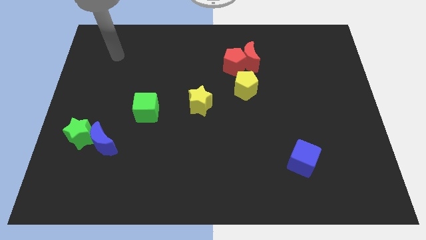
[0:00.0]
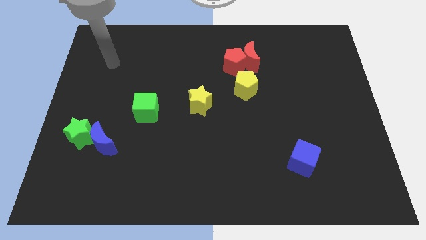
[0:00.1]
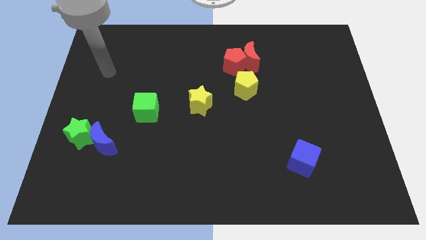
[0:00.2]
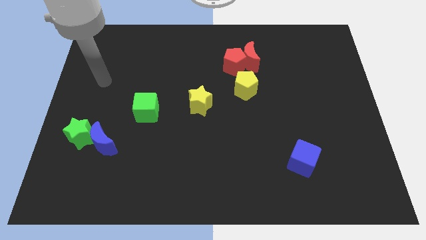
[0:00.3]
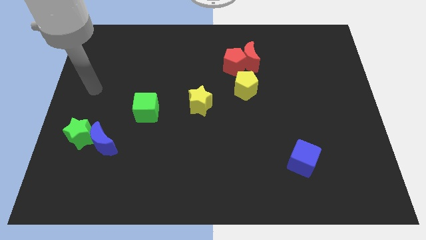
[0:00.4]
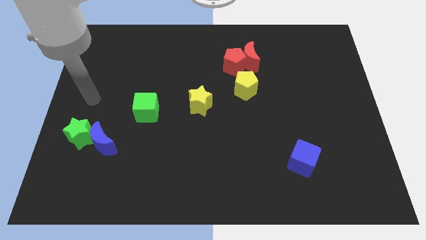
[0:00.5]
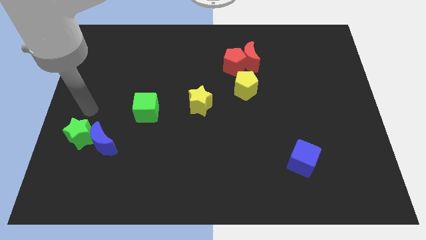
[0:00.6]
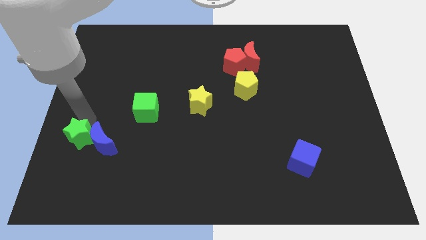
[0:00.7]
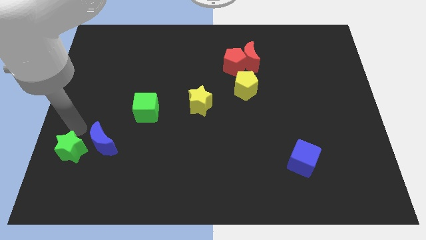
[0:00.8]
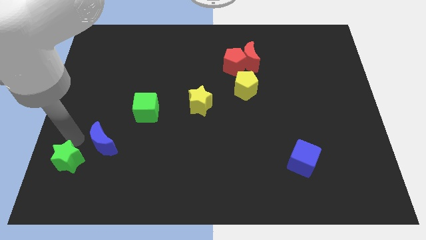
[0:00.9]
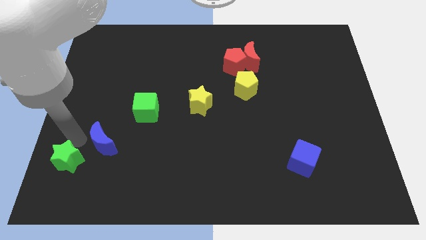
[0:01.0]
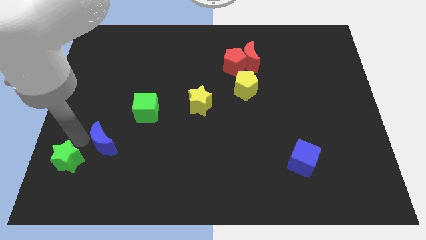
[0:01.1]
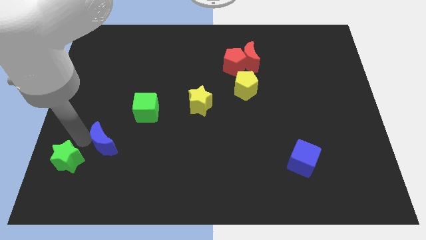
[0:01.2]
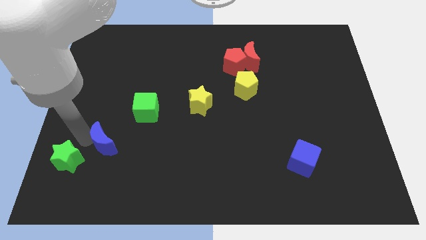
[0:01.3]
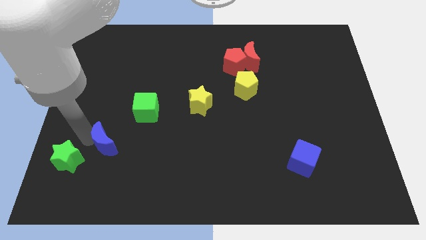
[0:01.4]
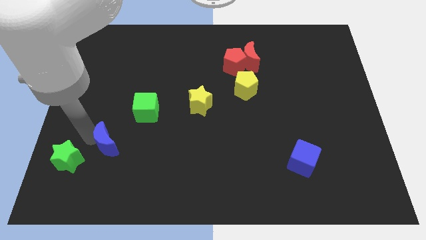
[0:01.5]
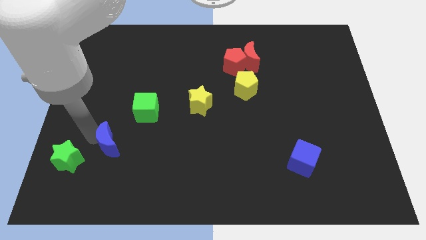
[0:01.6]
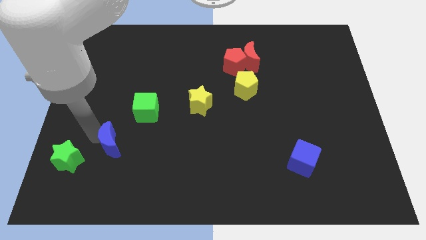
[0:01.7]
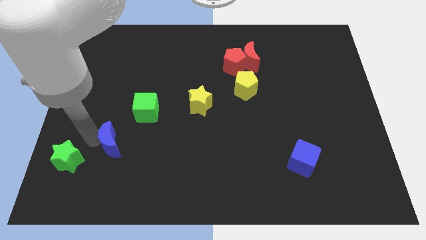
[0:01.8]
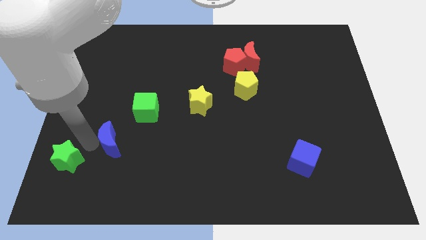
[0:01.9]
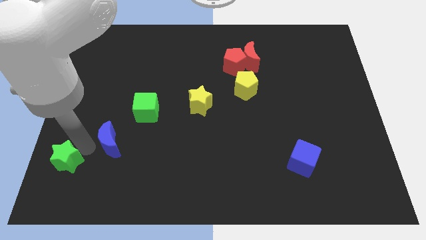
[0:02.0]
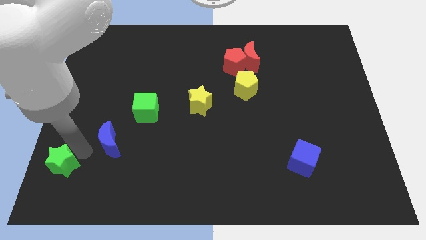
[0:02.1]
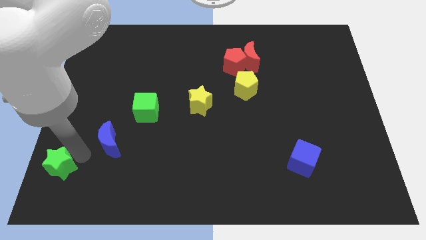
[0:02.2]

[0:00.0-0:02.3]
separate the blue moon from the green star

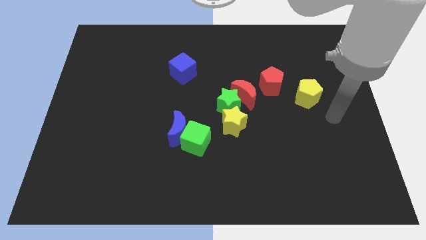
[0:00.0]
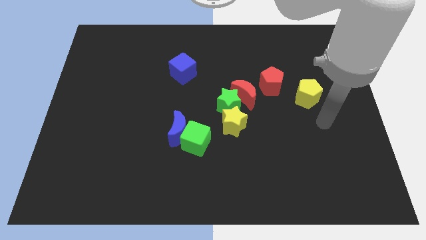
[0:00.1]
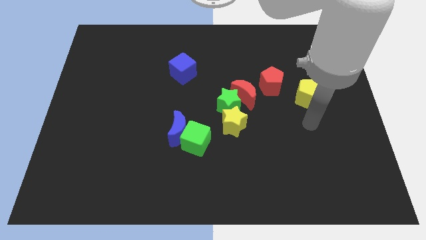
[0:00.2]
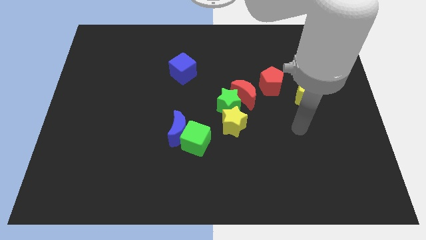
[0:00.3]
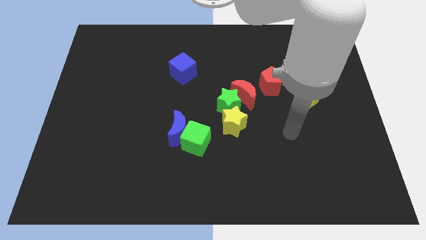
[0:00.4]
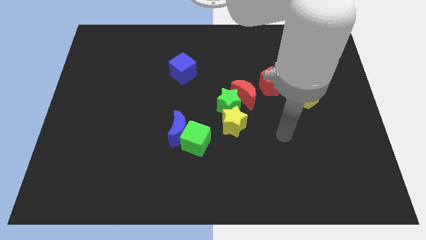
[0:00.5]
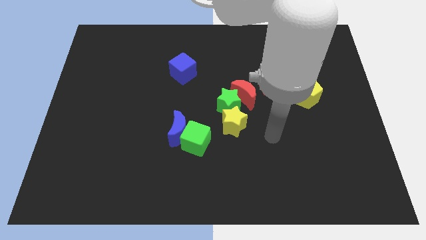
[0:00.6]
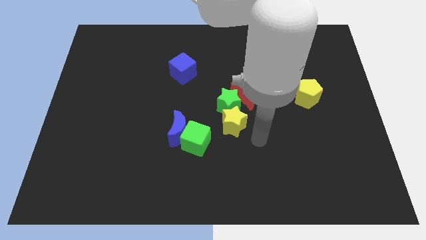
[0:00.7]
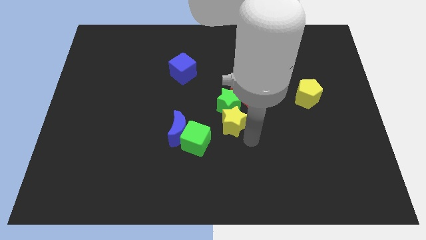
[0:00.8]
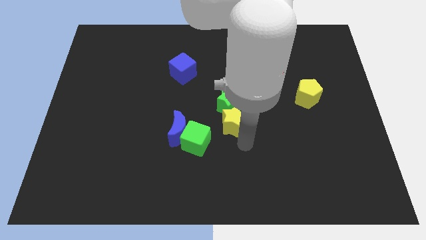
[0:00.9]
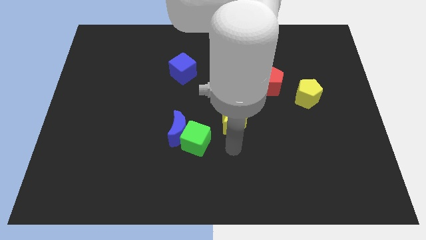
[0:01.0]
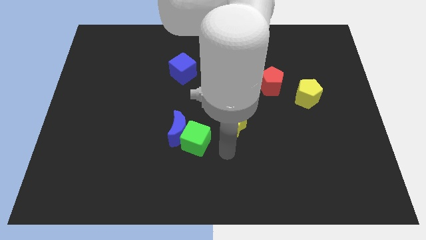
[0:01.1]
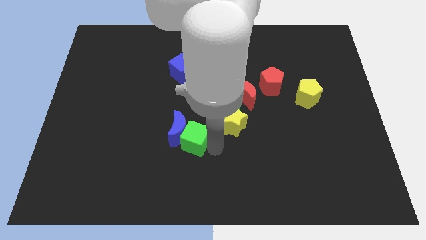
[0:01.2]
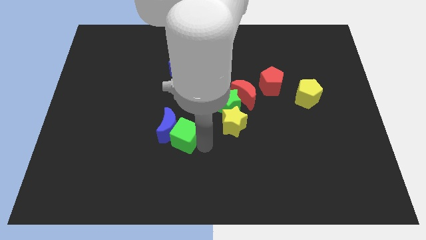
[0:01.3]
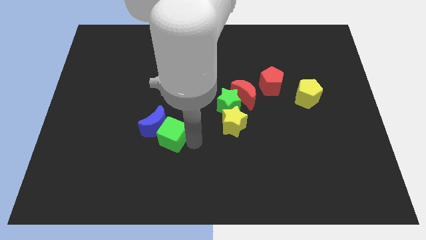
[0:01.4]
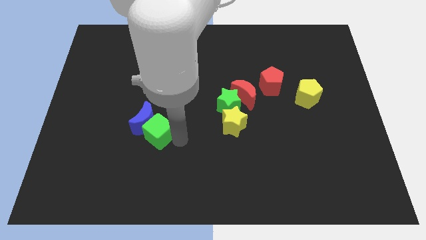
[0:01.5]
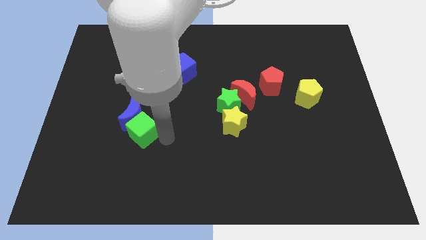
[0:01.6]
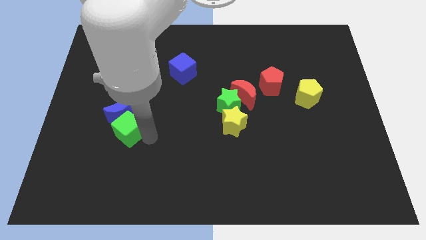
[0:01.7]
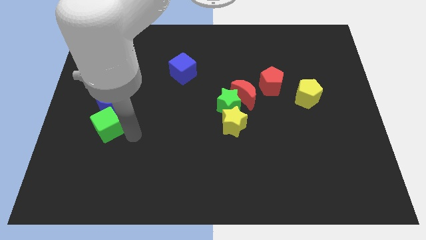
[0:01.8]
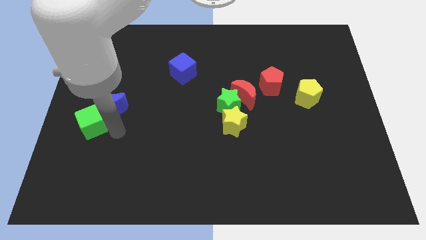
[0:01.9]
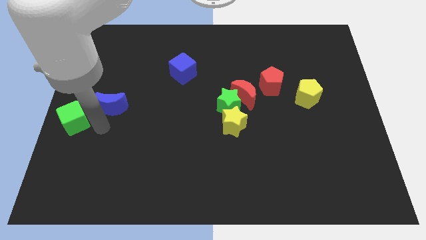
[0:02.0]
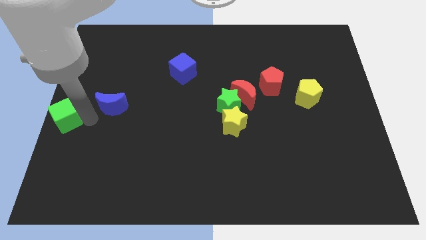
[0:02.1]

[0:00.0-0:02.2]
move the blue moon away from the green cube

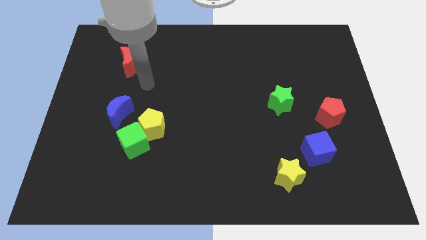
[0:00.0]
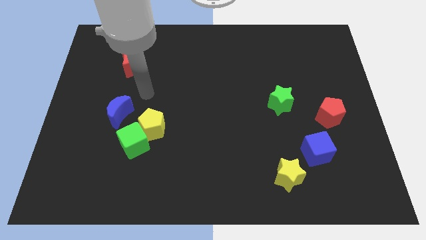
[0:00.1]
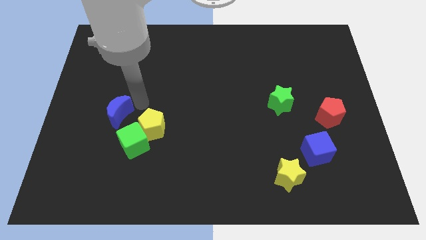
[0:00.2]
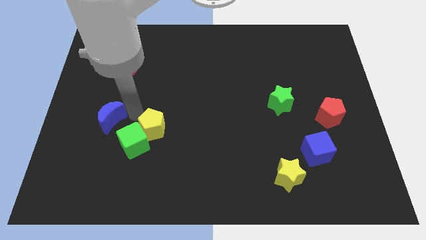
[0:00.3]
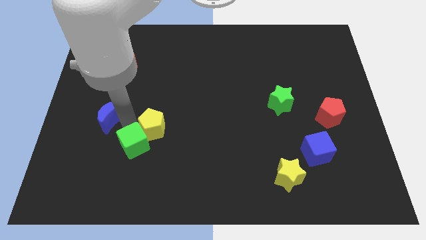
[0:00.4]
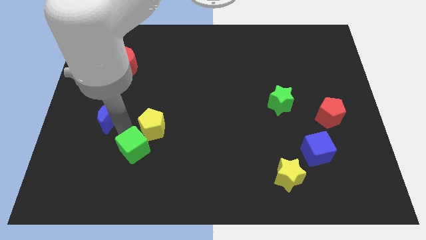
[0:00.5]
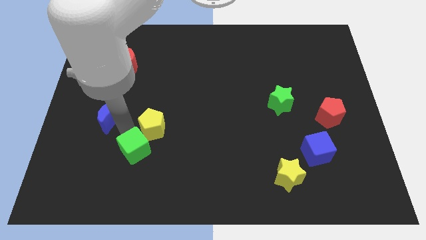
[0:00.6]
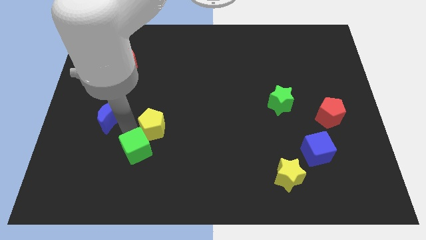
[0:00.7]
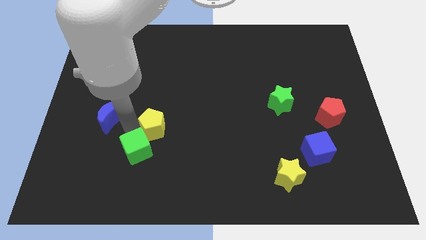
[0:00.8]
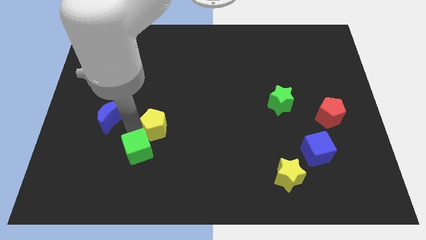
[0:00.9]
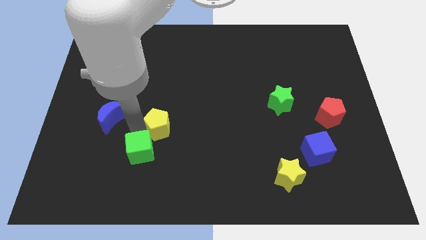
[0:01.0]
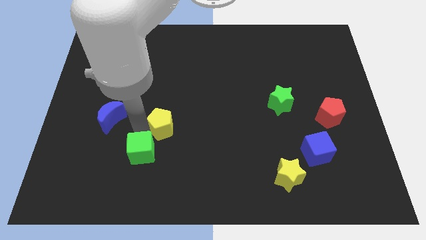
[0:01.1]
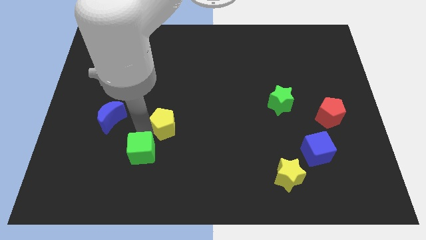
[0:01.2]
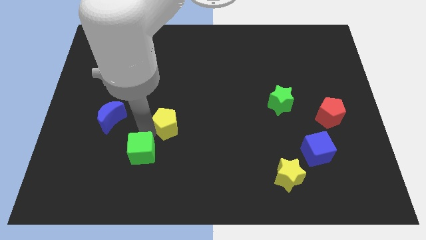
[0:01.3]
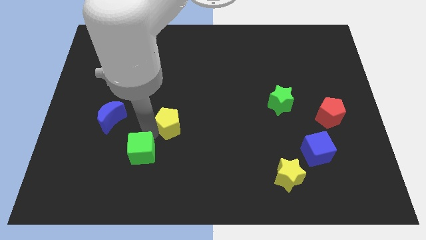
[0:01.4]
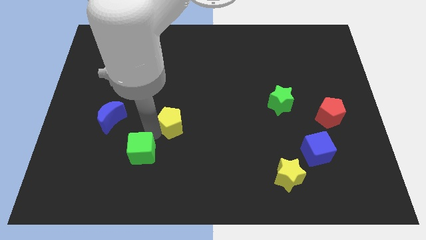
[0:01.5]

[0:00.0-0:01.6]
move the yellow pentagon away from the green cube and blue moon

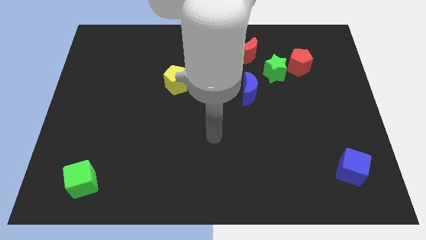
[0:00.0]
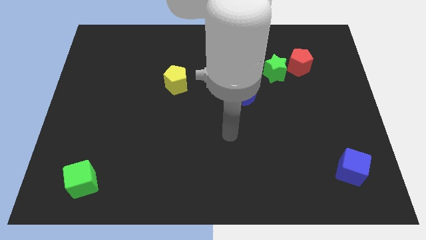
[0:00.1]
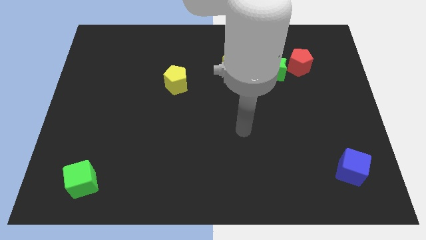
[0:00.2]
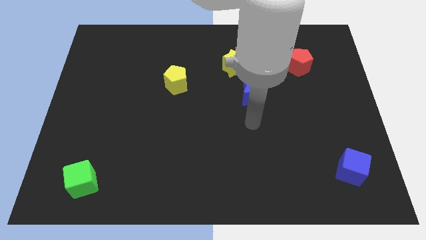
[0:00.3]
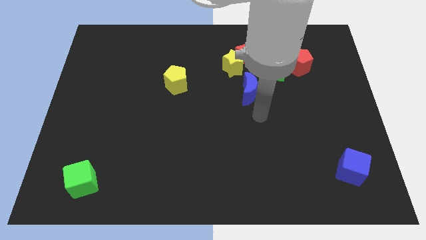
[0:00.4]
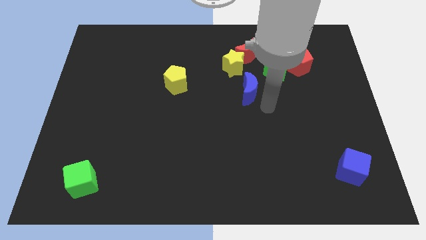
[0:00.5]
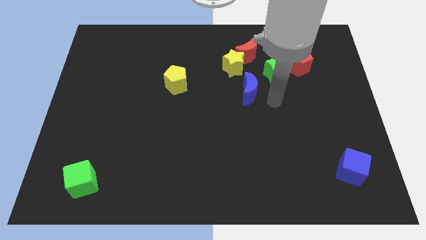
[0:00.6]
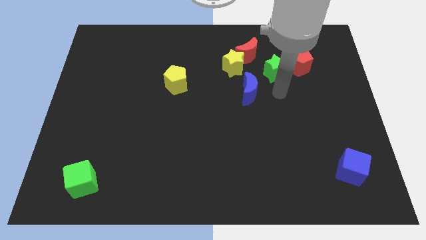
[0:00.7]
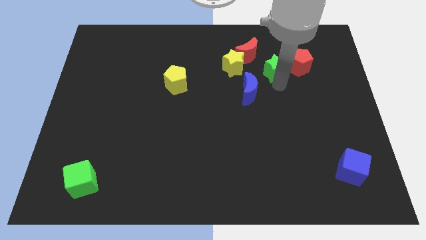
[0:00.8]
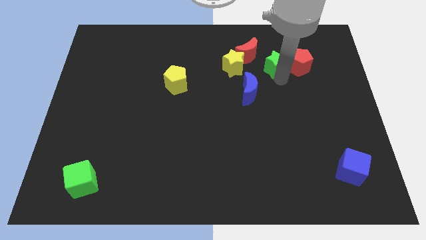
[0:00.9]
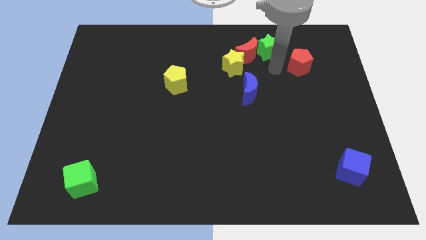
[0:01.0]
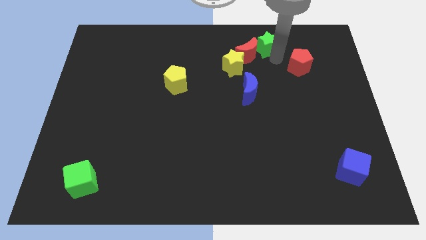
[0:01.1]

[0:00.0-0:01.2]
separate the red pentagon from the green star

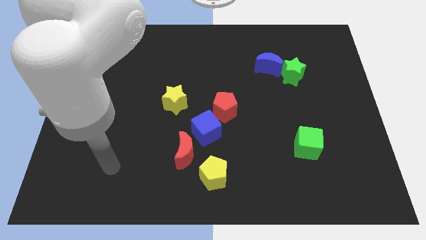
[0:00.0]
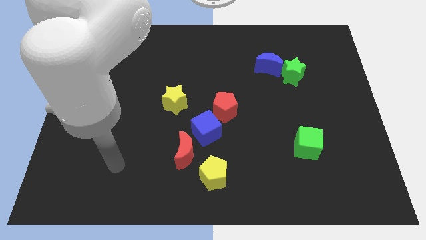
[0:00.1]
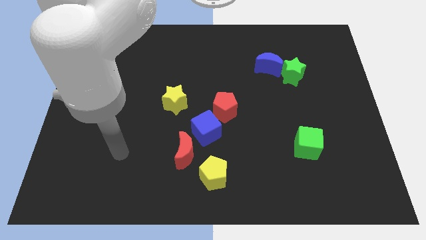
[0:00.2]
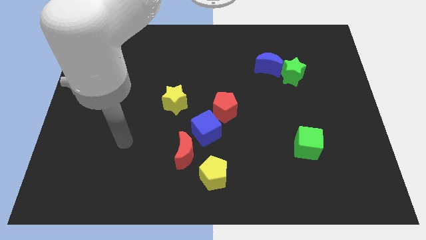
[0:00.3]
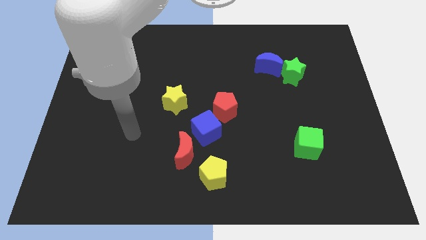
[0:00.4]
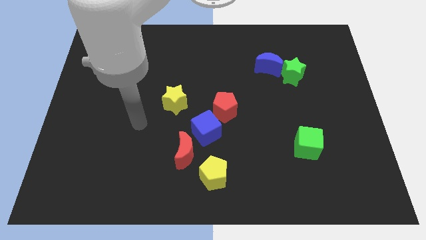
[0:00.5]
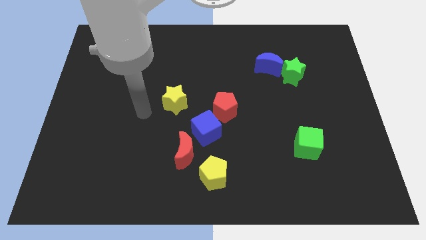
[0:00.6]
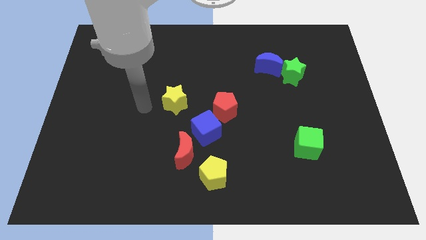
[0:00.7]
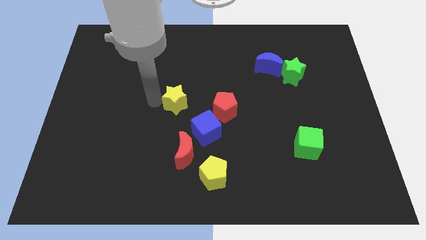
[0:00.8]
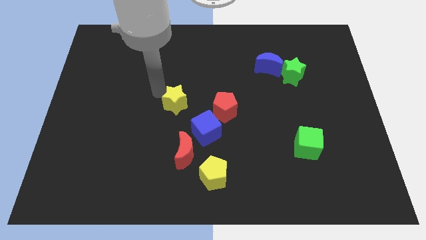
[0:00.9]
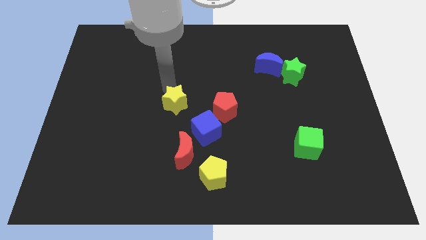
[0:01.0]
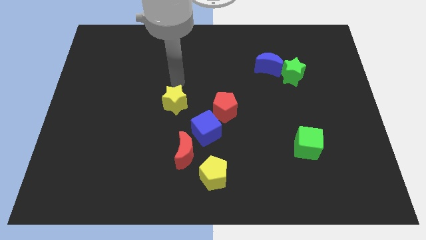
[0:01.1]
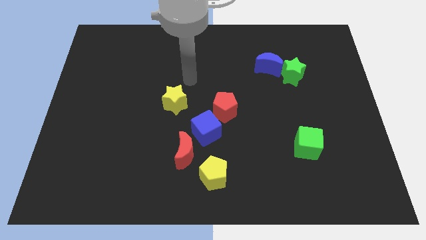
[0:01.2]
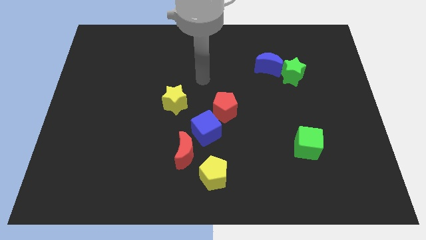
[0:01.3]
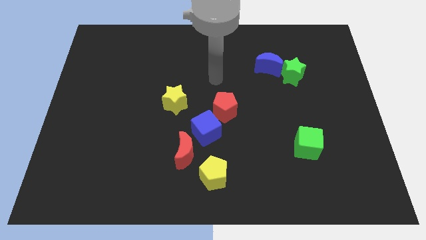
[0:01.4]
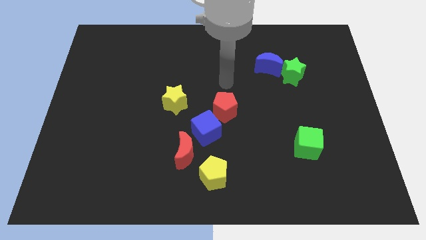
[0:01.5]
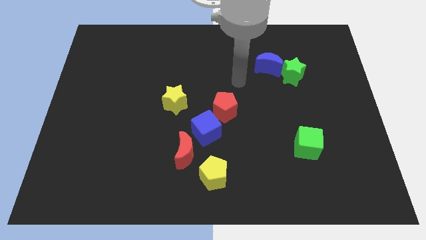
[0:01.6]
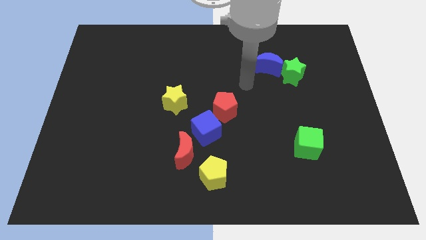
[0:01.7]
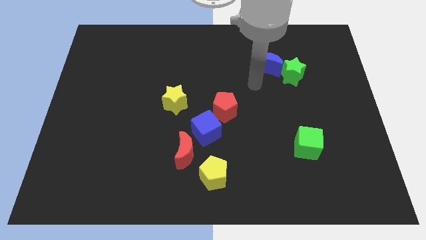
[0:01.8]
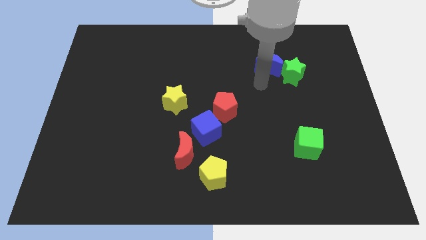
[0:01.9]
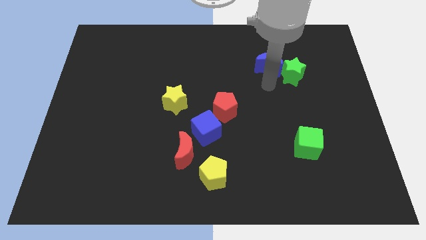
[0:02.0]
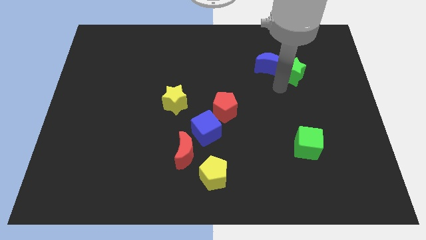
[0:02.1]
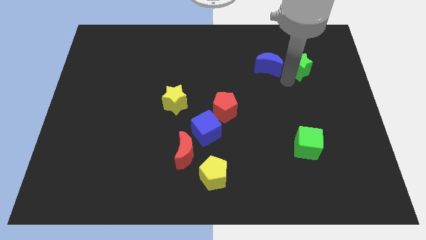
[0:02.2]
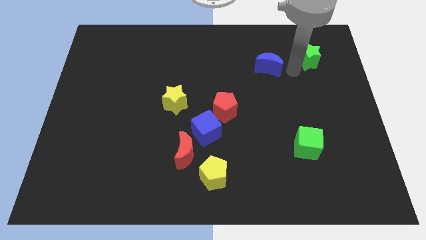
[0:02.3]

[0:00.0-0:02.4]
move the blue moon away from the green star
